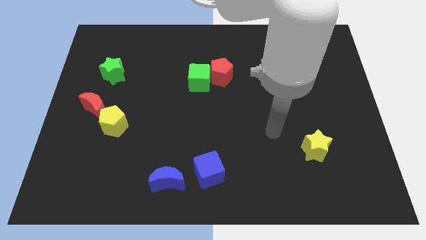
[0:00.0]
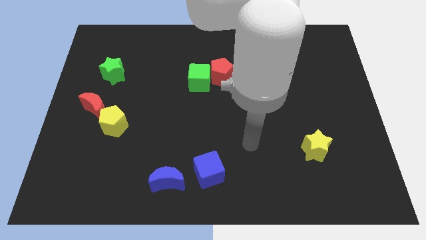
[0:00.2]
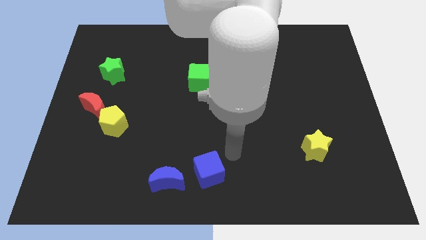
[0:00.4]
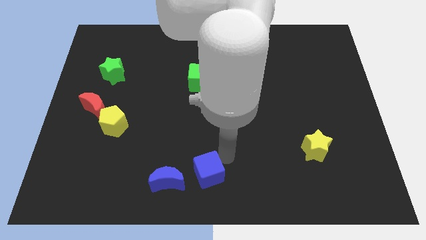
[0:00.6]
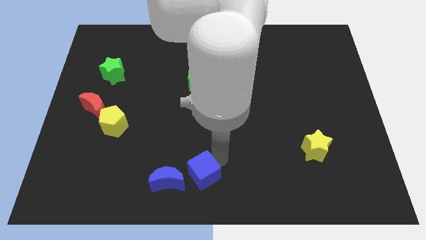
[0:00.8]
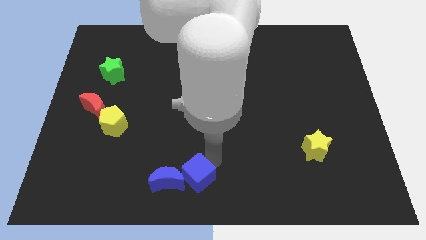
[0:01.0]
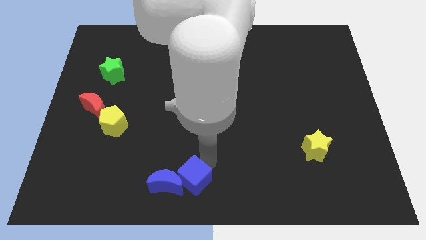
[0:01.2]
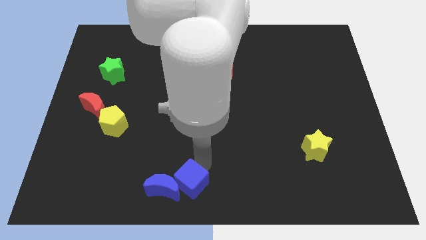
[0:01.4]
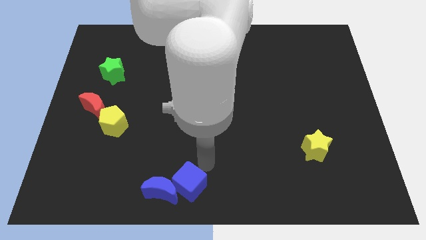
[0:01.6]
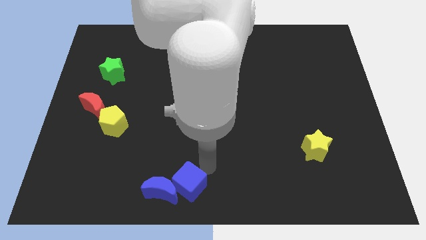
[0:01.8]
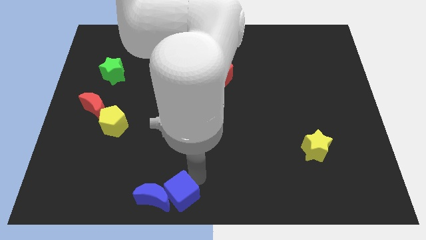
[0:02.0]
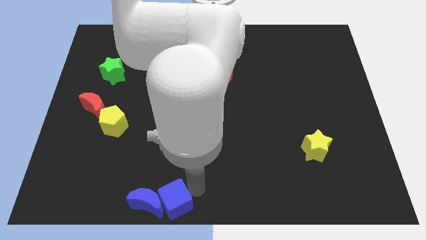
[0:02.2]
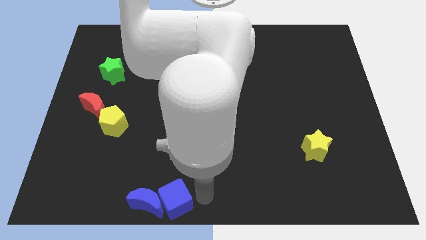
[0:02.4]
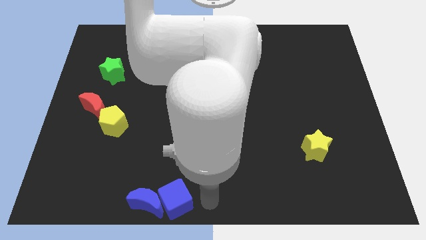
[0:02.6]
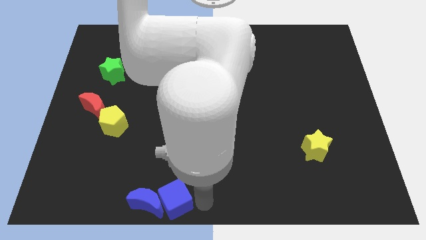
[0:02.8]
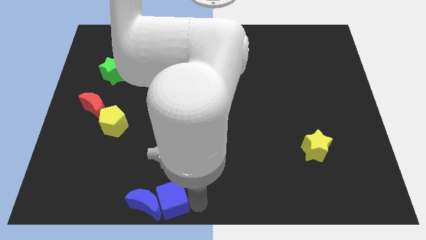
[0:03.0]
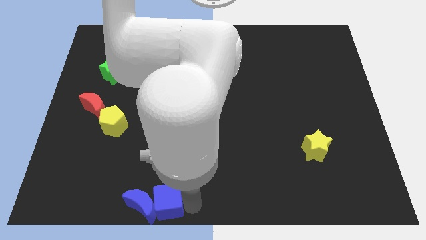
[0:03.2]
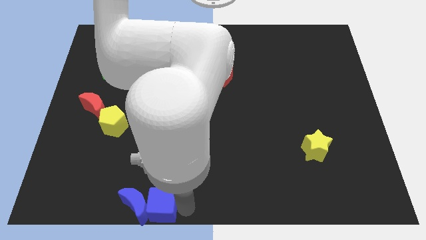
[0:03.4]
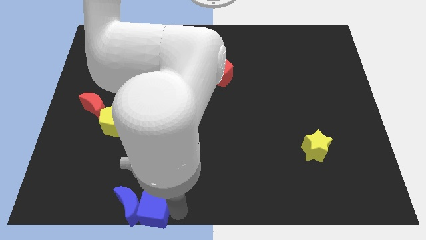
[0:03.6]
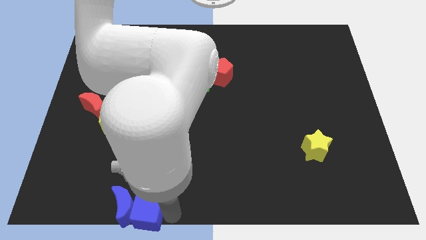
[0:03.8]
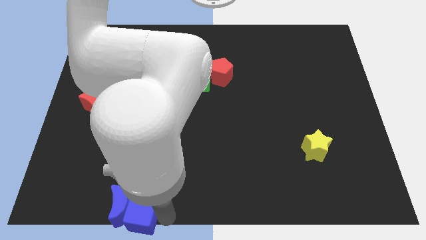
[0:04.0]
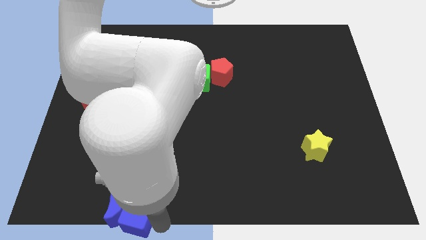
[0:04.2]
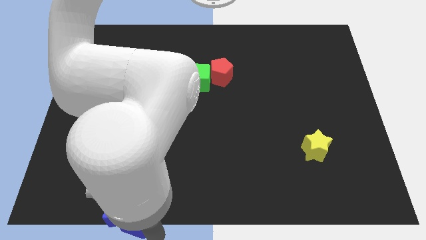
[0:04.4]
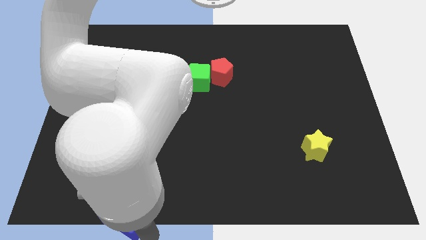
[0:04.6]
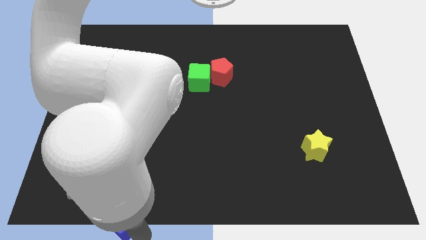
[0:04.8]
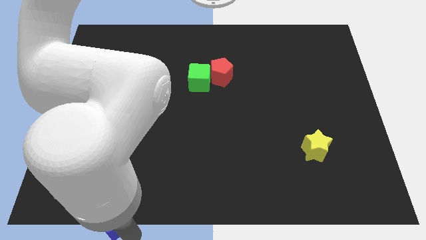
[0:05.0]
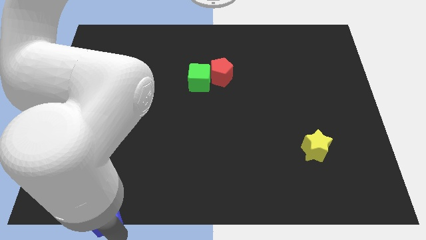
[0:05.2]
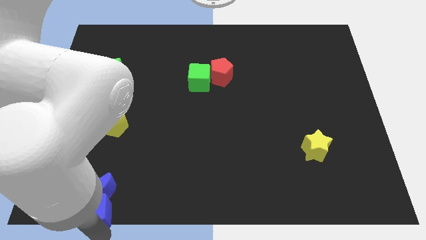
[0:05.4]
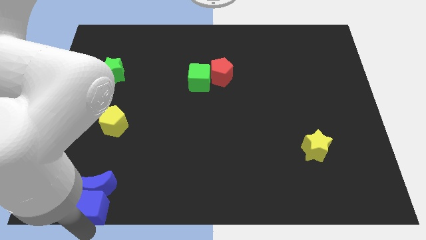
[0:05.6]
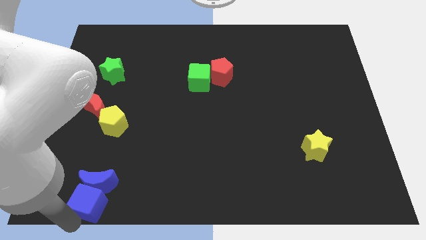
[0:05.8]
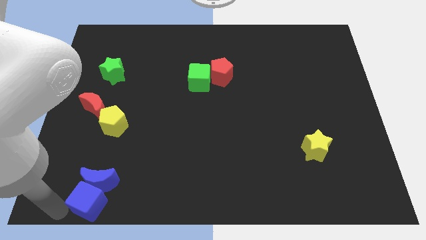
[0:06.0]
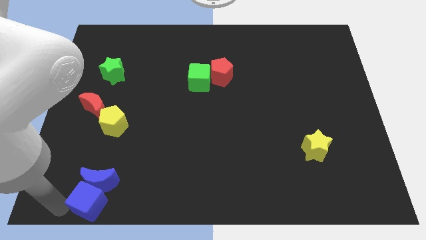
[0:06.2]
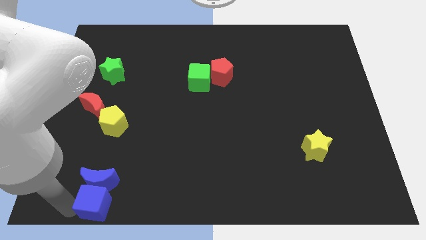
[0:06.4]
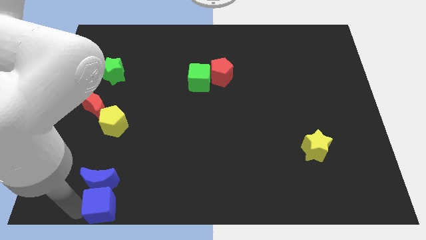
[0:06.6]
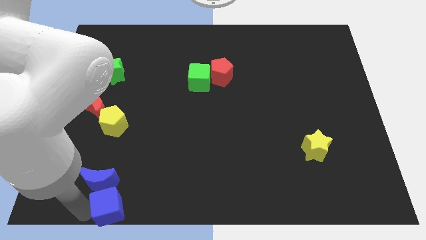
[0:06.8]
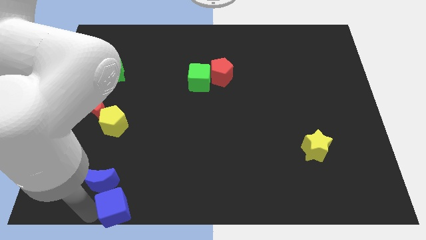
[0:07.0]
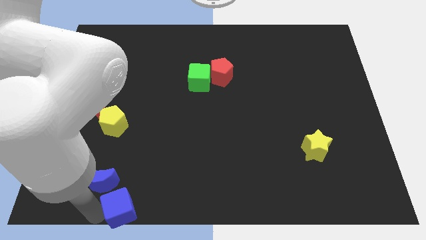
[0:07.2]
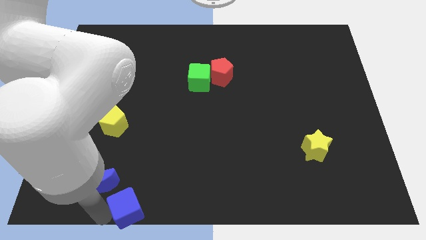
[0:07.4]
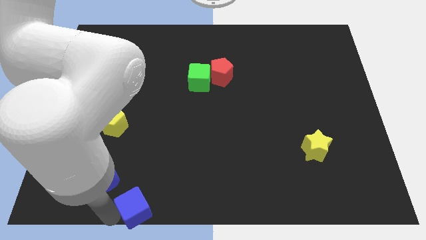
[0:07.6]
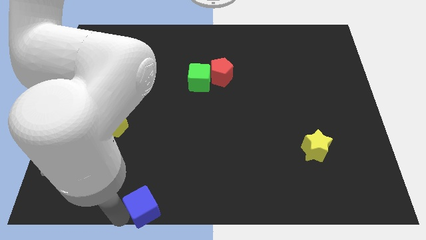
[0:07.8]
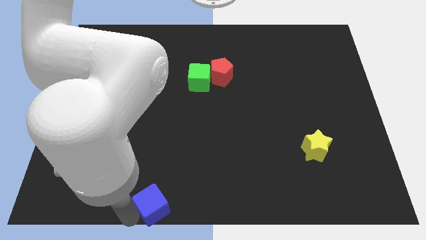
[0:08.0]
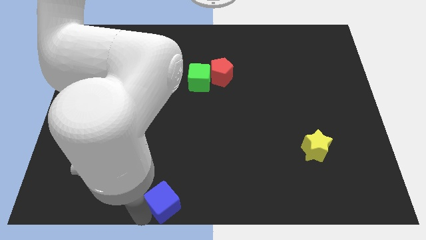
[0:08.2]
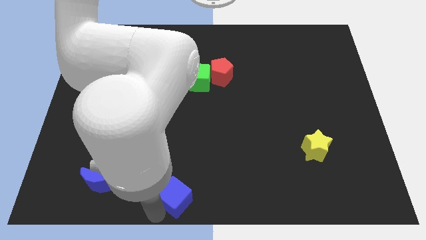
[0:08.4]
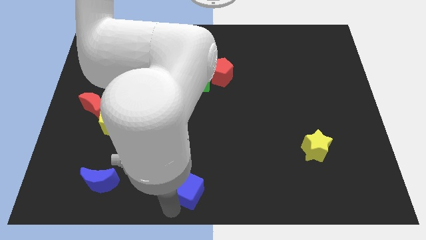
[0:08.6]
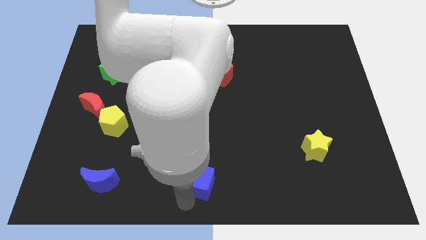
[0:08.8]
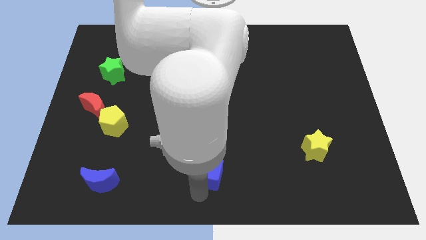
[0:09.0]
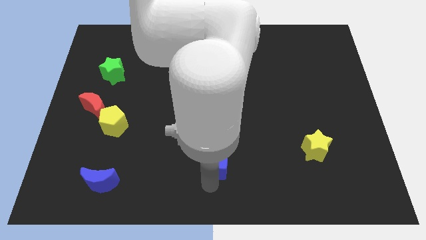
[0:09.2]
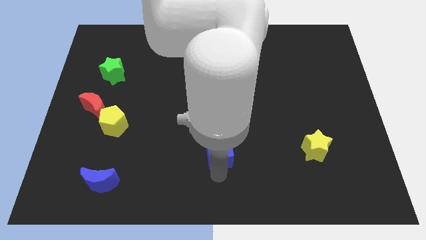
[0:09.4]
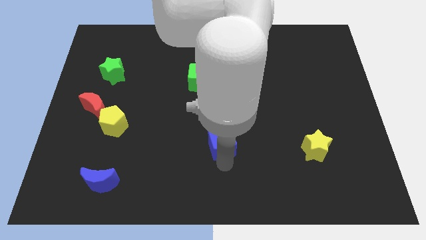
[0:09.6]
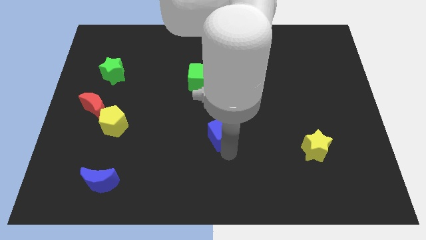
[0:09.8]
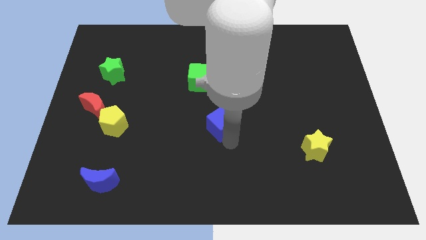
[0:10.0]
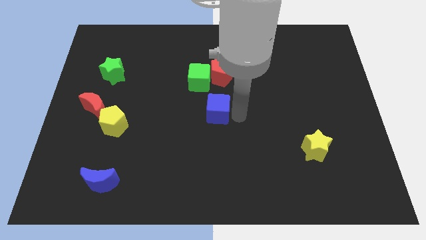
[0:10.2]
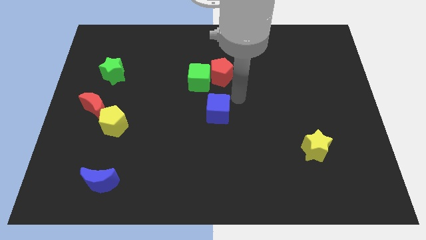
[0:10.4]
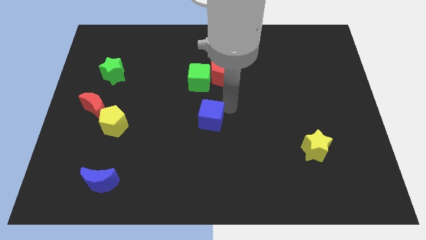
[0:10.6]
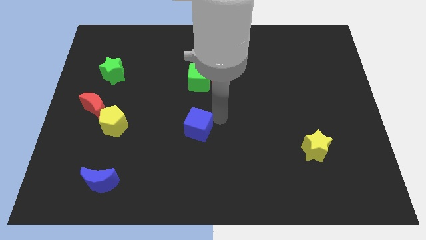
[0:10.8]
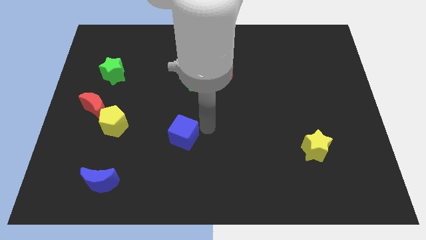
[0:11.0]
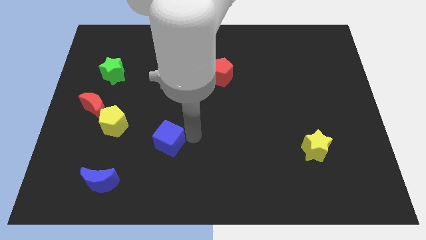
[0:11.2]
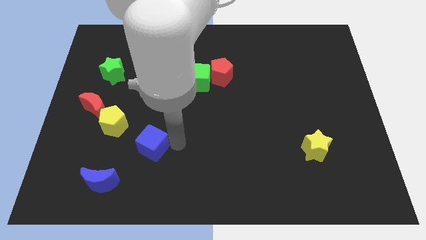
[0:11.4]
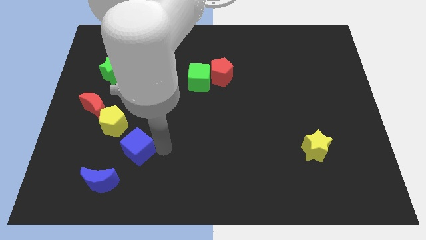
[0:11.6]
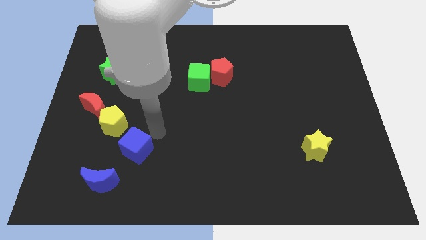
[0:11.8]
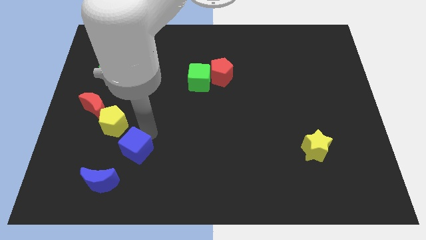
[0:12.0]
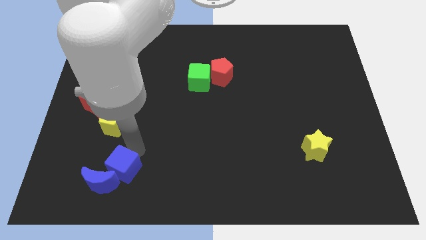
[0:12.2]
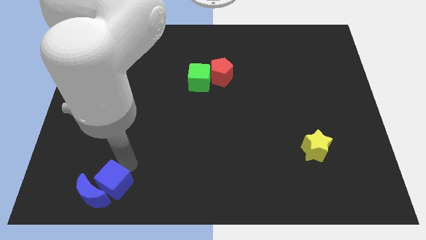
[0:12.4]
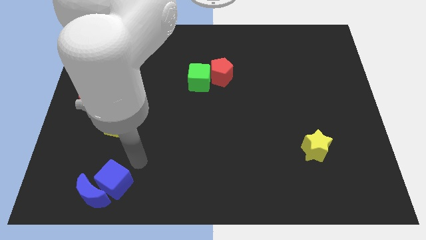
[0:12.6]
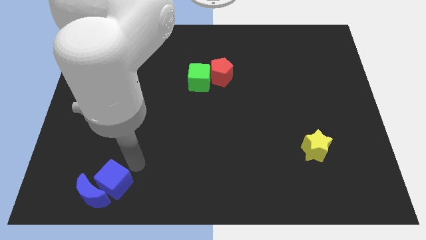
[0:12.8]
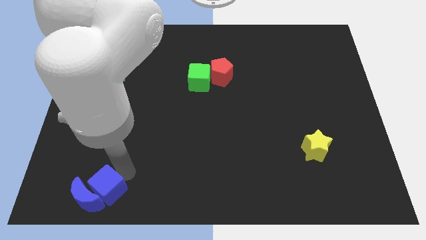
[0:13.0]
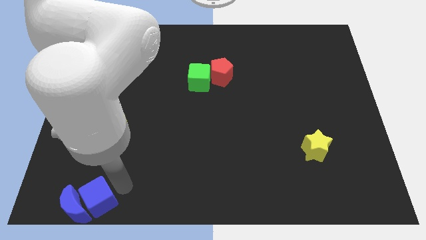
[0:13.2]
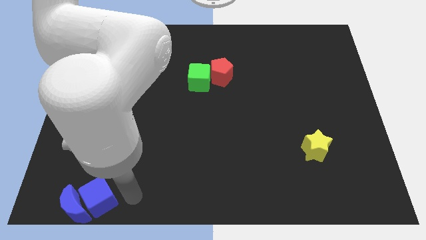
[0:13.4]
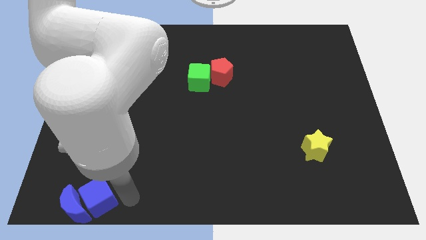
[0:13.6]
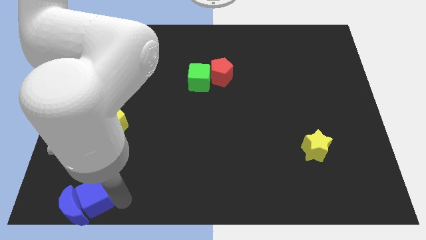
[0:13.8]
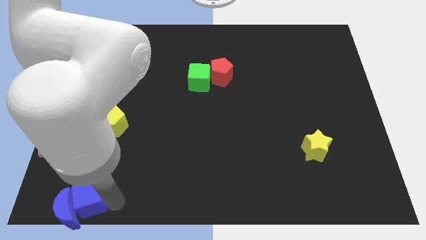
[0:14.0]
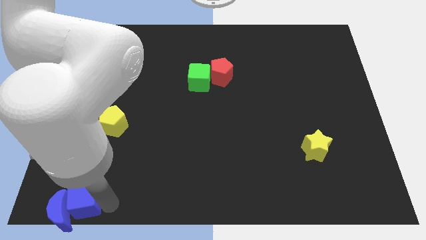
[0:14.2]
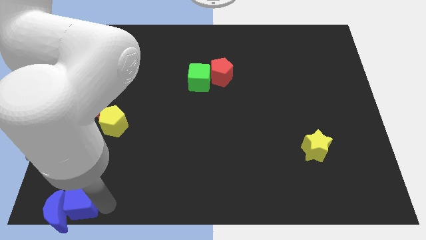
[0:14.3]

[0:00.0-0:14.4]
put the blue cube to the bottom left of the board
